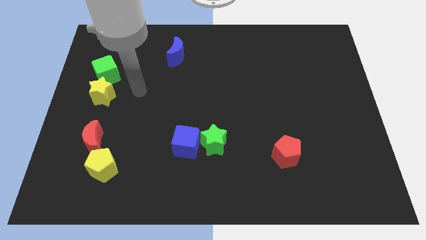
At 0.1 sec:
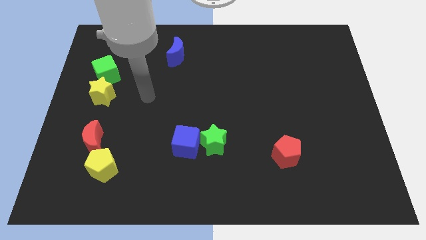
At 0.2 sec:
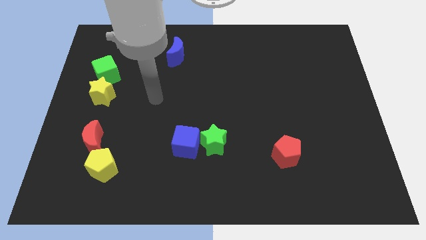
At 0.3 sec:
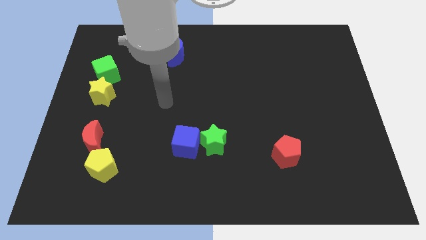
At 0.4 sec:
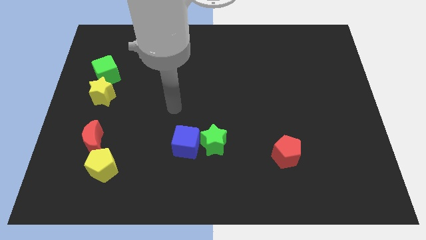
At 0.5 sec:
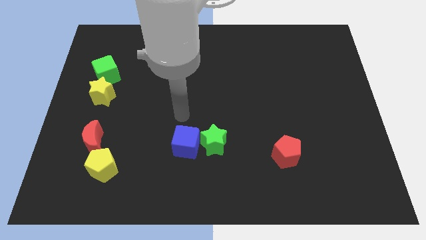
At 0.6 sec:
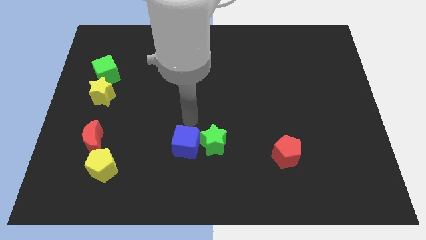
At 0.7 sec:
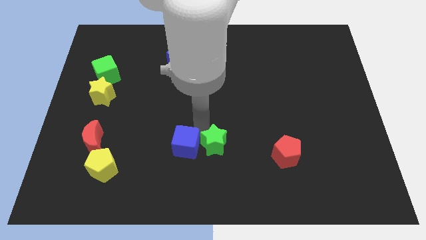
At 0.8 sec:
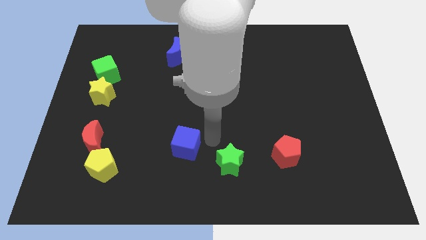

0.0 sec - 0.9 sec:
separate the blue cube from the green star

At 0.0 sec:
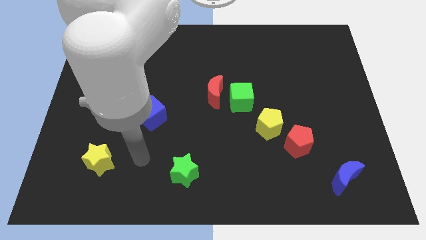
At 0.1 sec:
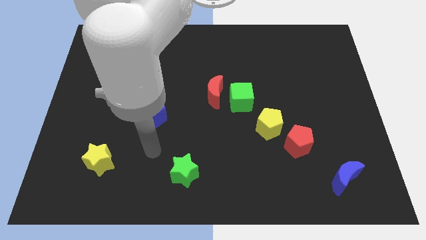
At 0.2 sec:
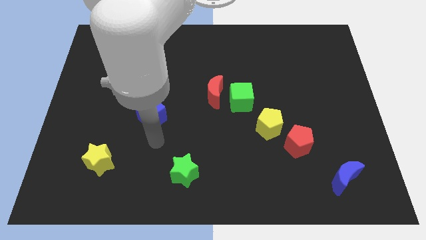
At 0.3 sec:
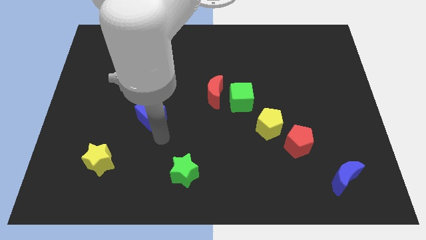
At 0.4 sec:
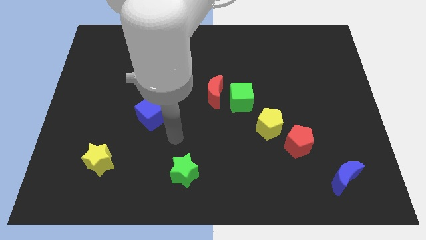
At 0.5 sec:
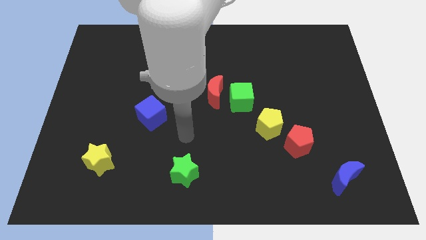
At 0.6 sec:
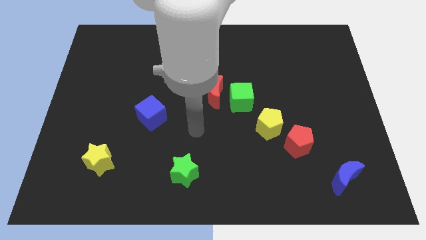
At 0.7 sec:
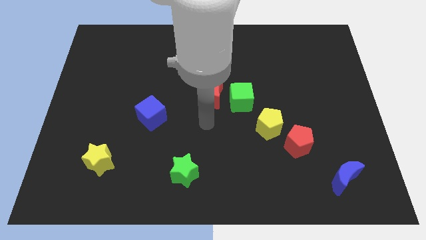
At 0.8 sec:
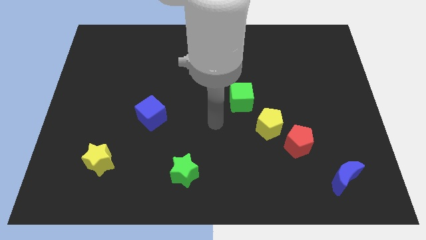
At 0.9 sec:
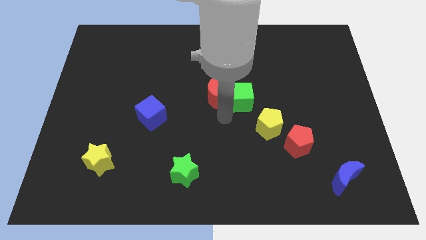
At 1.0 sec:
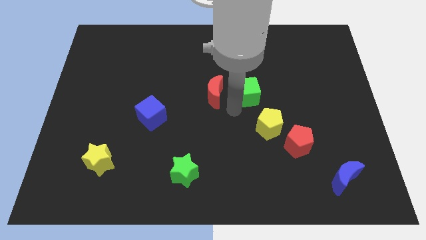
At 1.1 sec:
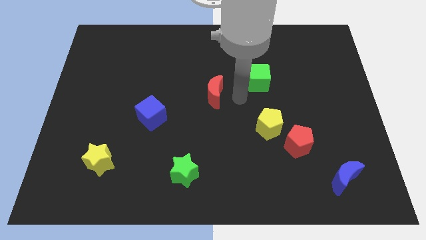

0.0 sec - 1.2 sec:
pull the red moon apart from the green cube

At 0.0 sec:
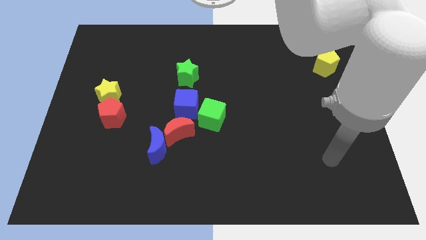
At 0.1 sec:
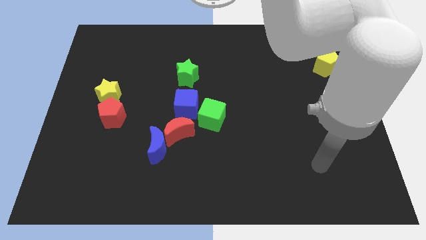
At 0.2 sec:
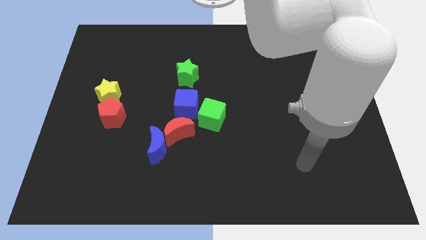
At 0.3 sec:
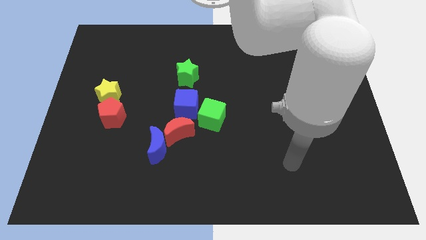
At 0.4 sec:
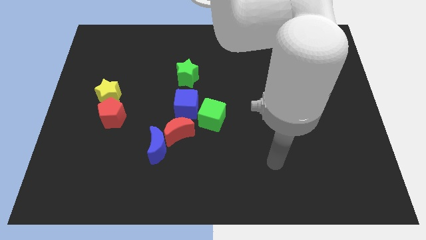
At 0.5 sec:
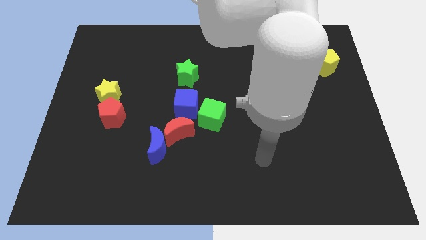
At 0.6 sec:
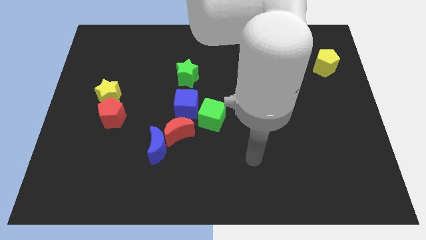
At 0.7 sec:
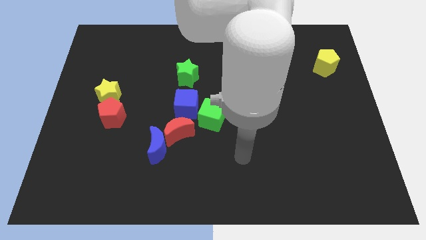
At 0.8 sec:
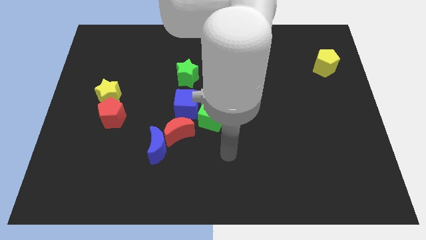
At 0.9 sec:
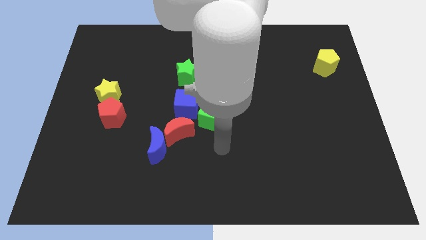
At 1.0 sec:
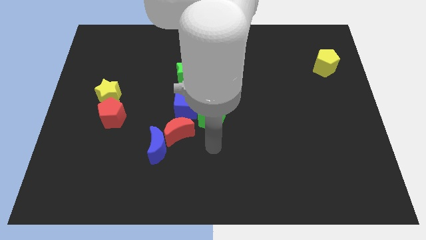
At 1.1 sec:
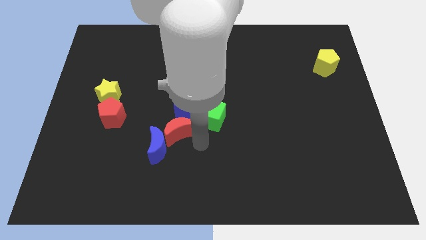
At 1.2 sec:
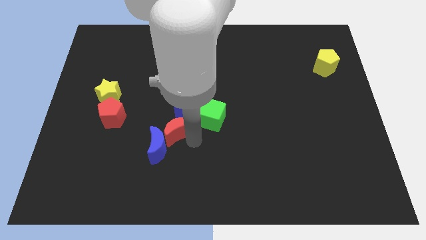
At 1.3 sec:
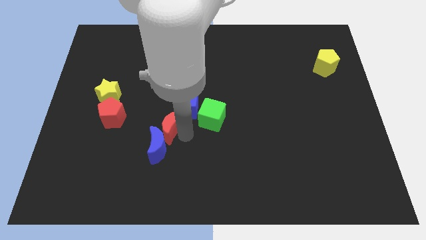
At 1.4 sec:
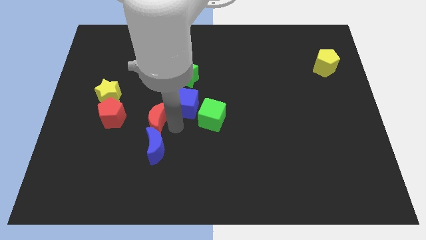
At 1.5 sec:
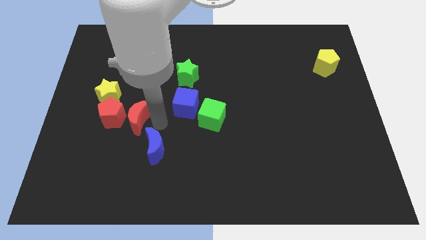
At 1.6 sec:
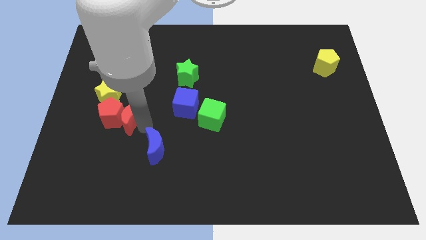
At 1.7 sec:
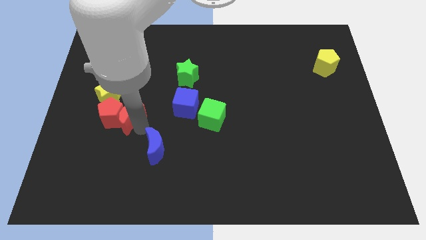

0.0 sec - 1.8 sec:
pull the blue moon apart from the red moon

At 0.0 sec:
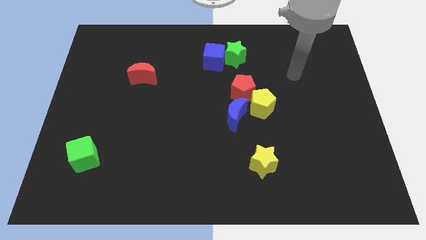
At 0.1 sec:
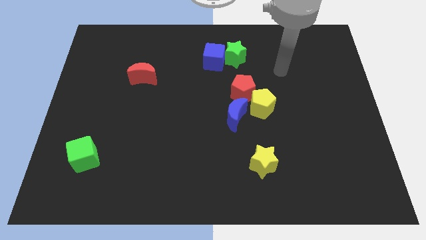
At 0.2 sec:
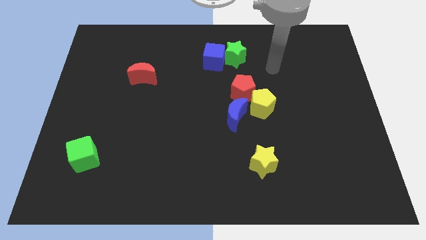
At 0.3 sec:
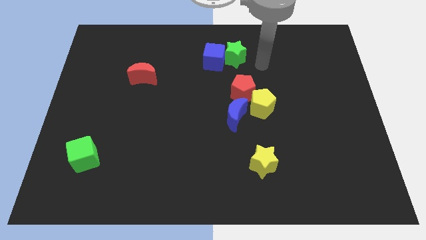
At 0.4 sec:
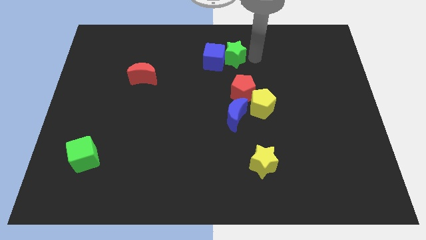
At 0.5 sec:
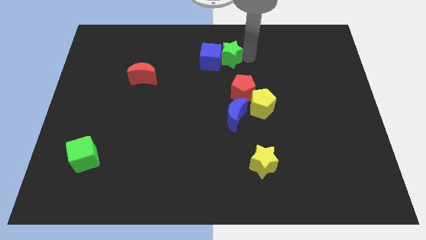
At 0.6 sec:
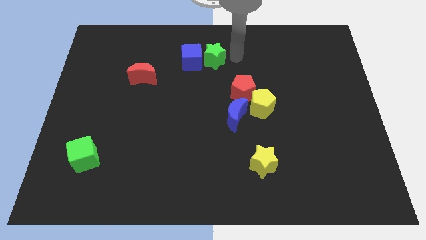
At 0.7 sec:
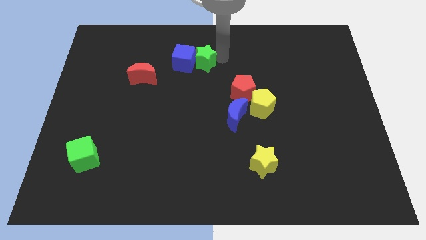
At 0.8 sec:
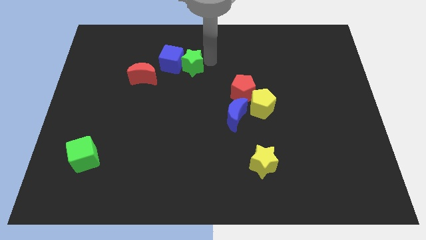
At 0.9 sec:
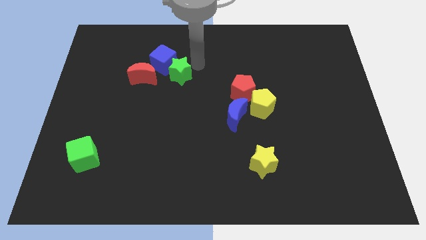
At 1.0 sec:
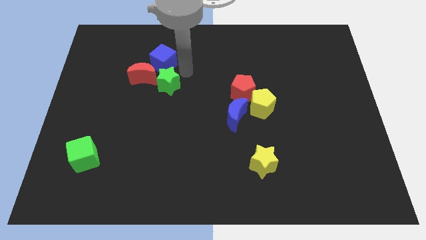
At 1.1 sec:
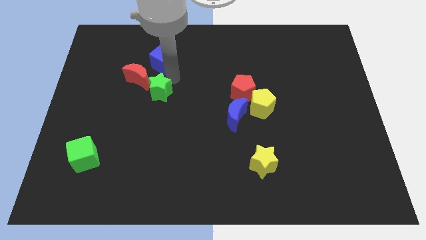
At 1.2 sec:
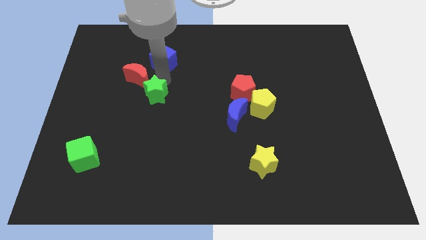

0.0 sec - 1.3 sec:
pull the blue cube apart from the green star

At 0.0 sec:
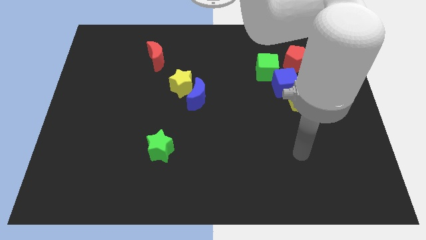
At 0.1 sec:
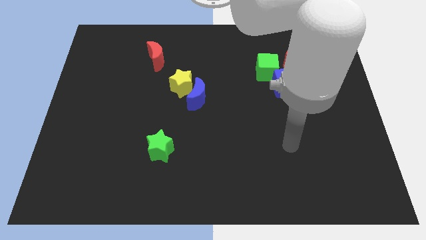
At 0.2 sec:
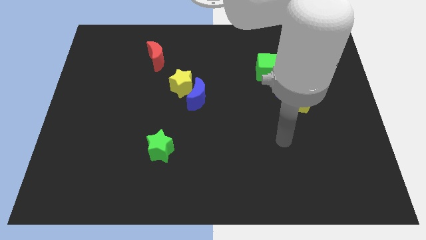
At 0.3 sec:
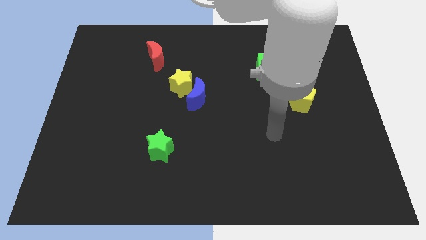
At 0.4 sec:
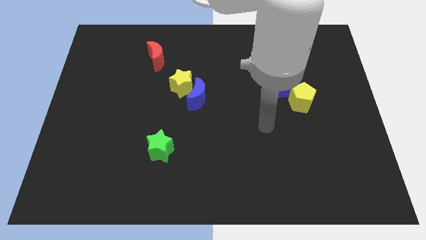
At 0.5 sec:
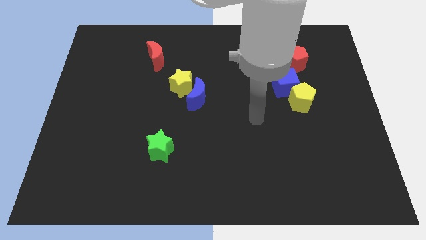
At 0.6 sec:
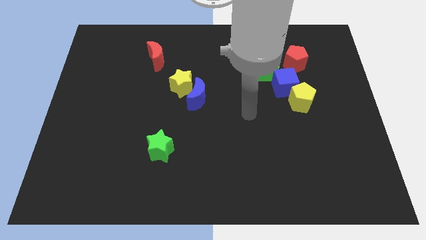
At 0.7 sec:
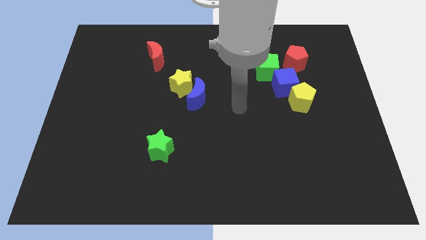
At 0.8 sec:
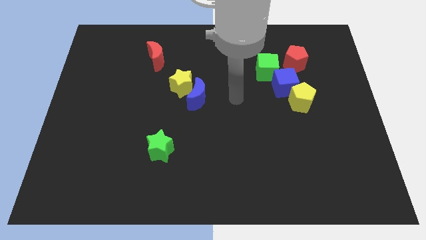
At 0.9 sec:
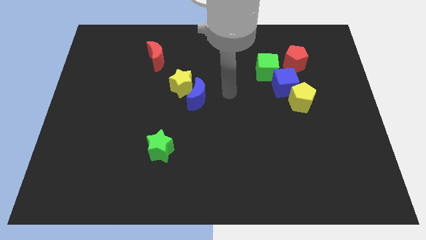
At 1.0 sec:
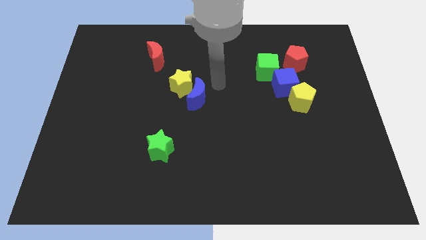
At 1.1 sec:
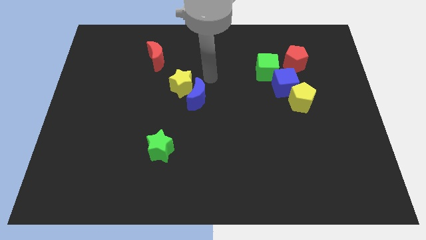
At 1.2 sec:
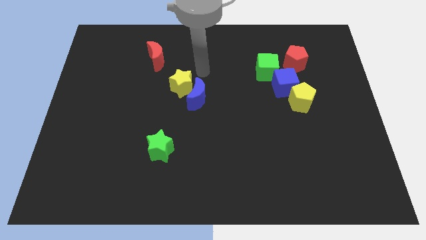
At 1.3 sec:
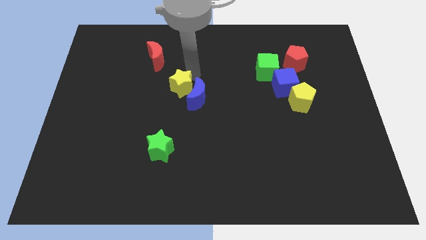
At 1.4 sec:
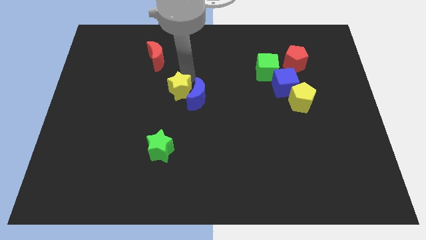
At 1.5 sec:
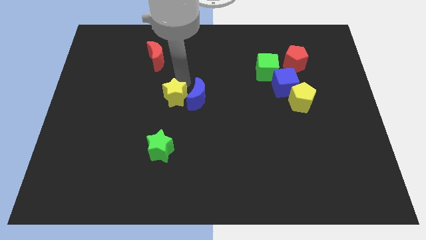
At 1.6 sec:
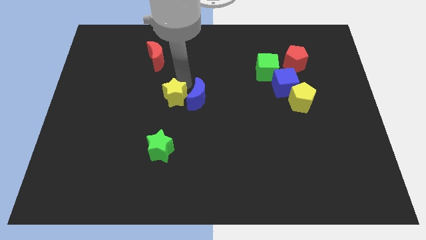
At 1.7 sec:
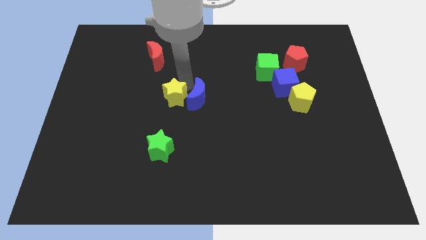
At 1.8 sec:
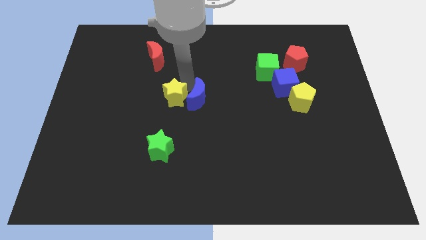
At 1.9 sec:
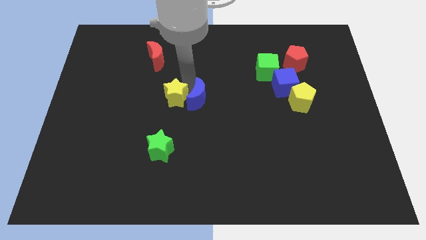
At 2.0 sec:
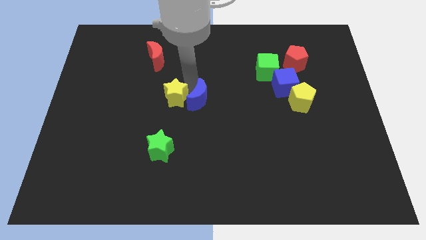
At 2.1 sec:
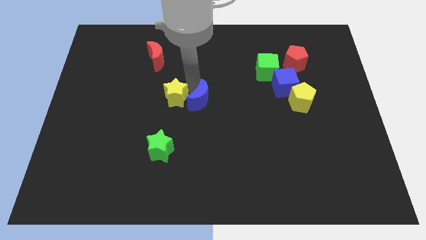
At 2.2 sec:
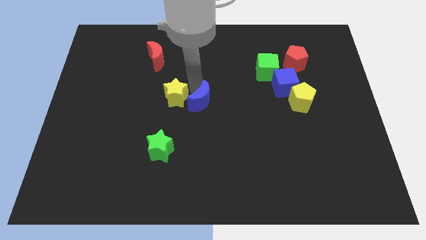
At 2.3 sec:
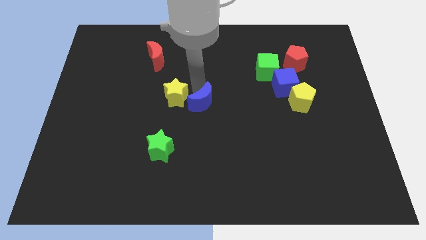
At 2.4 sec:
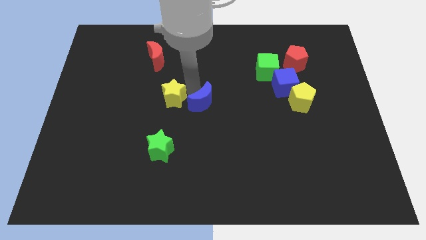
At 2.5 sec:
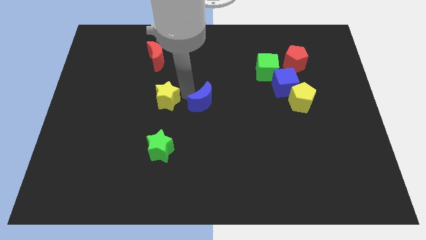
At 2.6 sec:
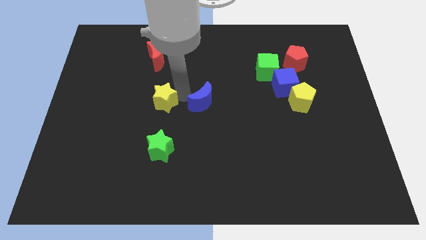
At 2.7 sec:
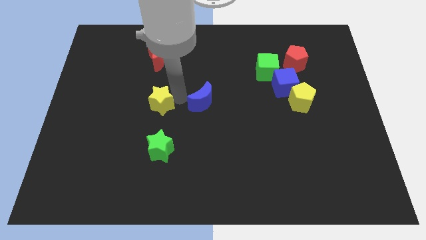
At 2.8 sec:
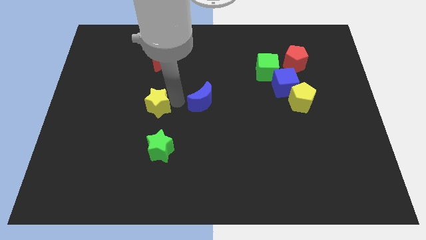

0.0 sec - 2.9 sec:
separate the blue moon from the yellow star

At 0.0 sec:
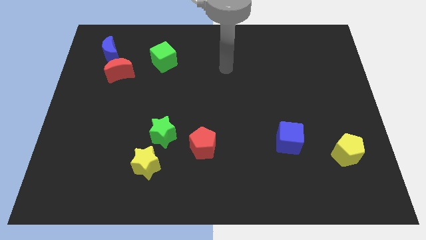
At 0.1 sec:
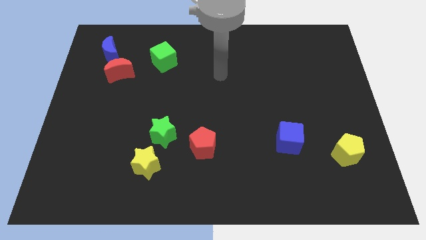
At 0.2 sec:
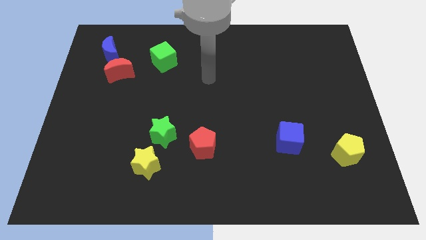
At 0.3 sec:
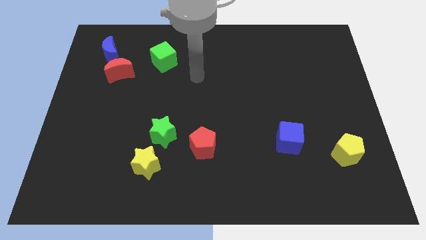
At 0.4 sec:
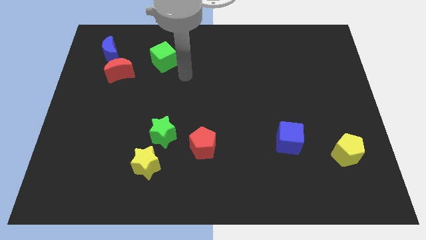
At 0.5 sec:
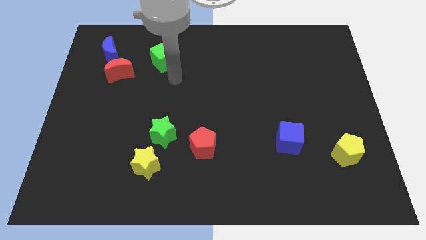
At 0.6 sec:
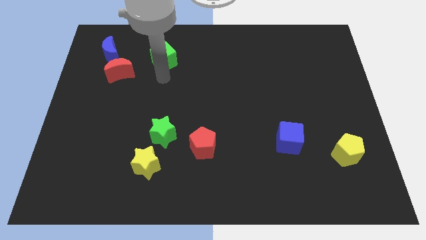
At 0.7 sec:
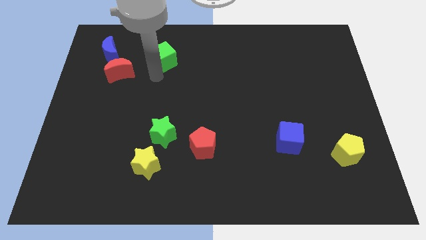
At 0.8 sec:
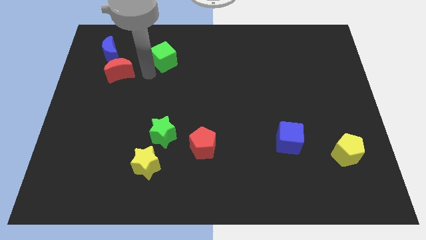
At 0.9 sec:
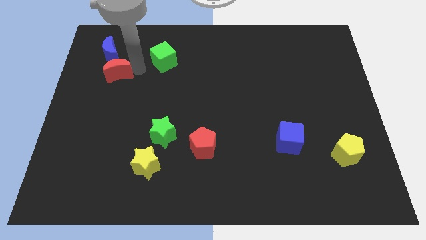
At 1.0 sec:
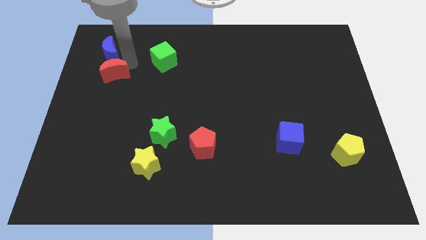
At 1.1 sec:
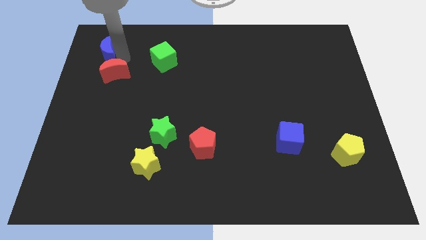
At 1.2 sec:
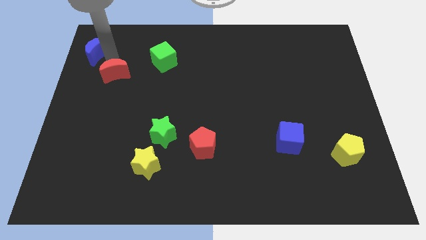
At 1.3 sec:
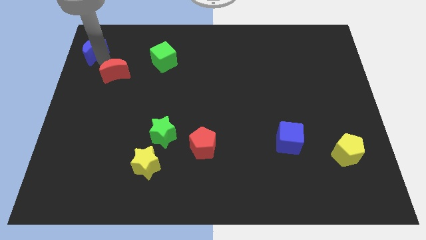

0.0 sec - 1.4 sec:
move the red moon away from the blue moon
